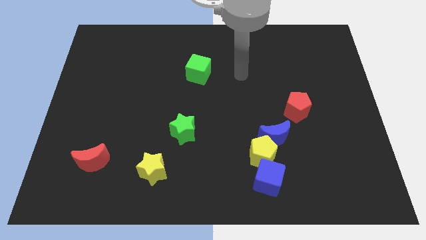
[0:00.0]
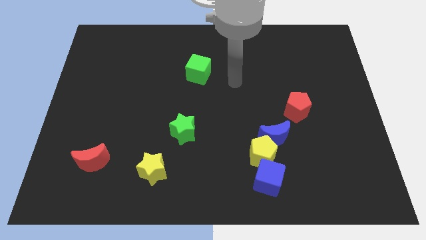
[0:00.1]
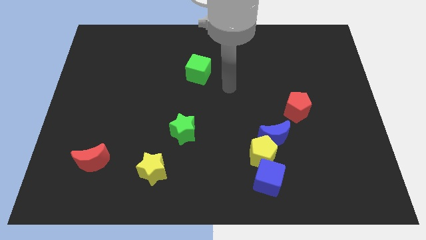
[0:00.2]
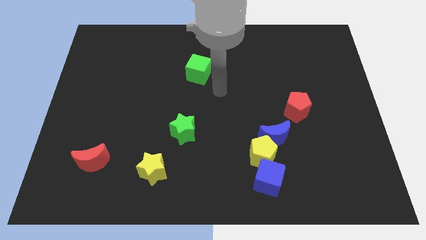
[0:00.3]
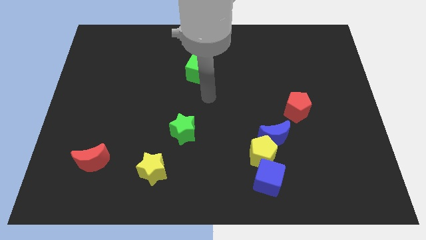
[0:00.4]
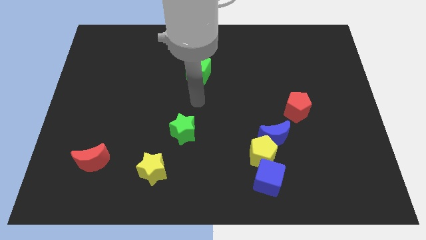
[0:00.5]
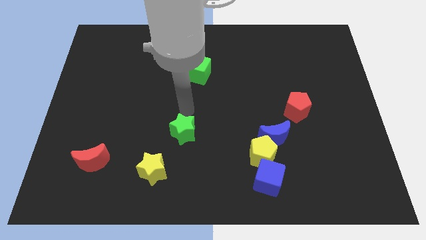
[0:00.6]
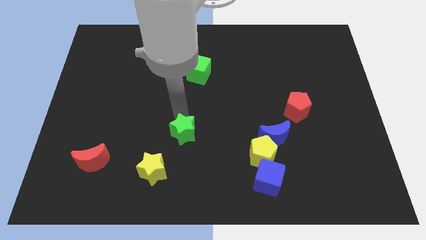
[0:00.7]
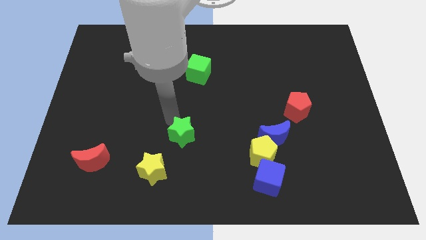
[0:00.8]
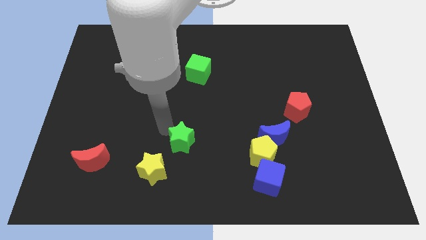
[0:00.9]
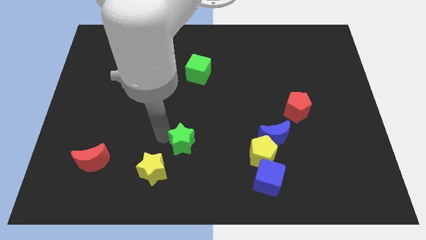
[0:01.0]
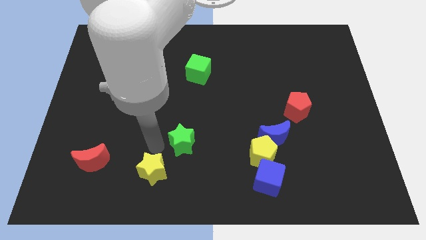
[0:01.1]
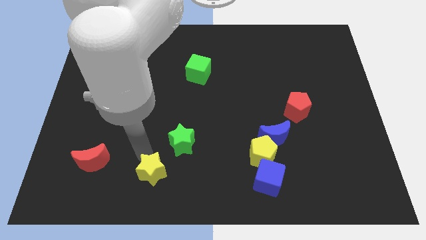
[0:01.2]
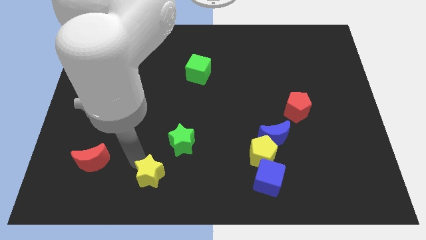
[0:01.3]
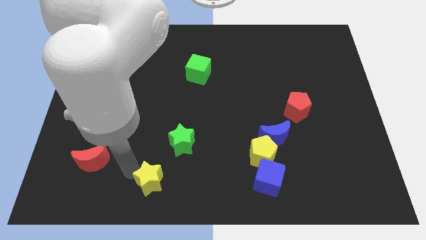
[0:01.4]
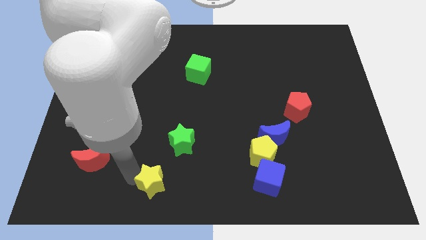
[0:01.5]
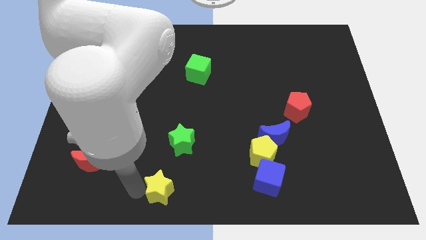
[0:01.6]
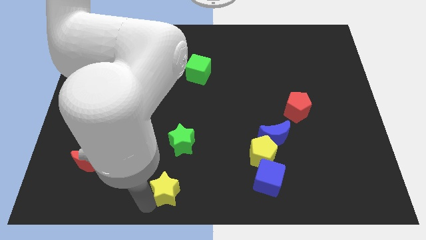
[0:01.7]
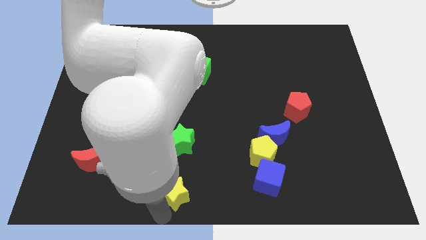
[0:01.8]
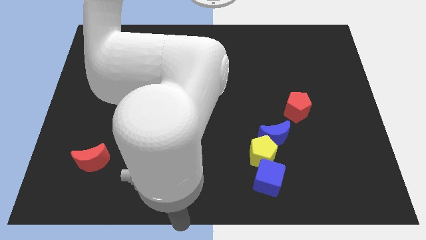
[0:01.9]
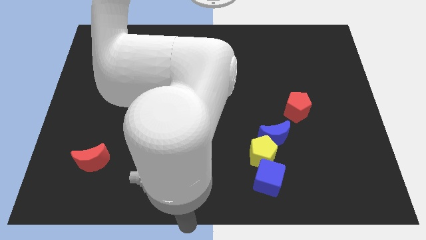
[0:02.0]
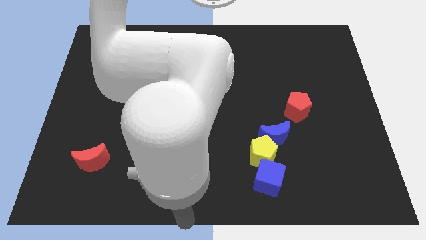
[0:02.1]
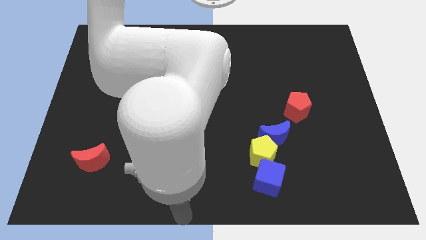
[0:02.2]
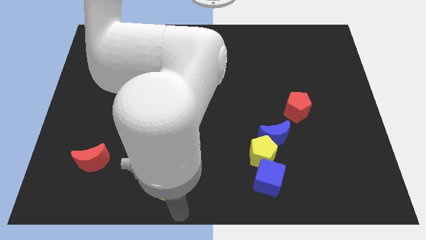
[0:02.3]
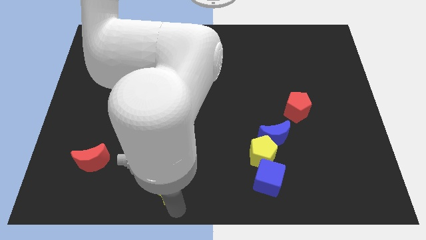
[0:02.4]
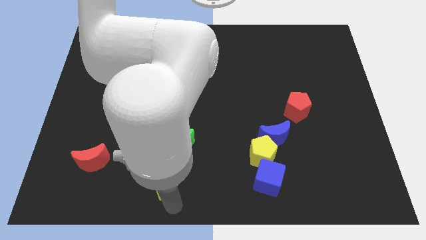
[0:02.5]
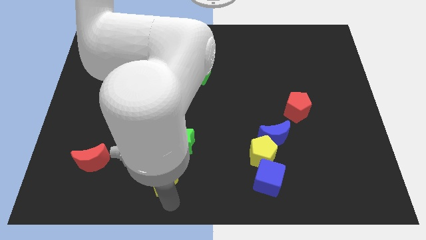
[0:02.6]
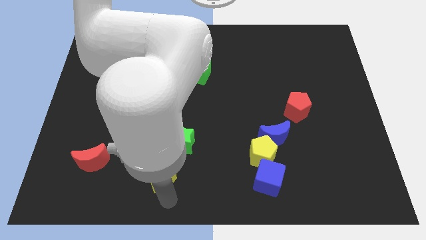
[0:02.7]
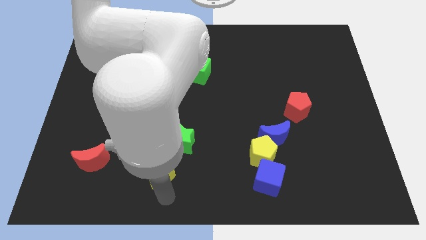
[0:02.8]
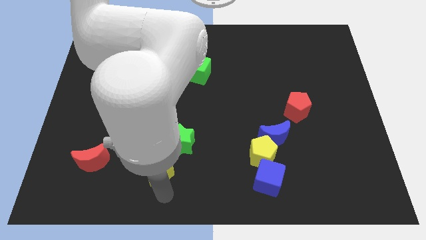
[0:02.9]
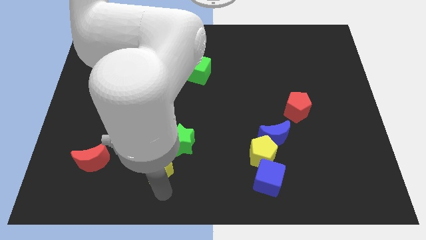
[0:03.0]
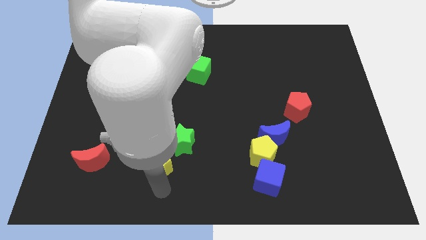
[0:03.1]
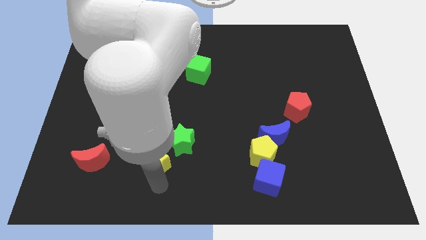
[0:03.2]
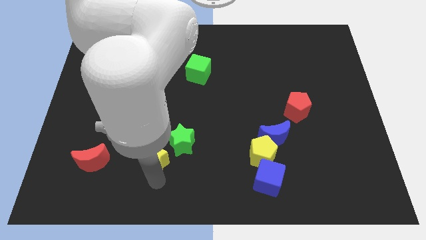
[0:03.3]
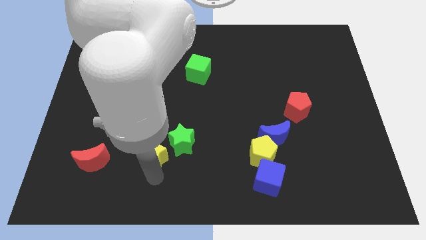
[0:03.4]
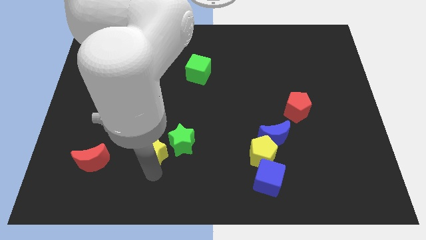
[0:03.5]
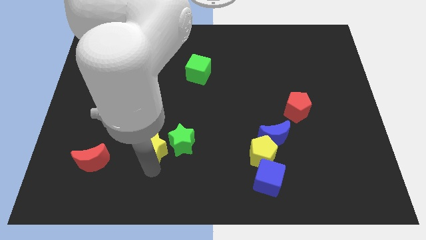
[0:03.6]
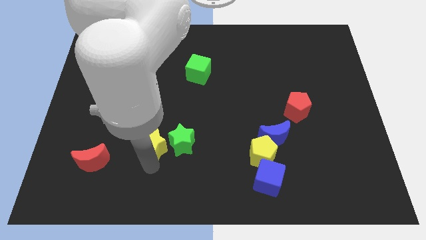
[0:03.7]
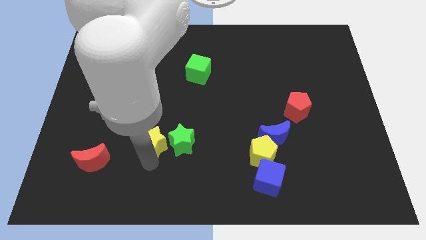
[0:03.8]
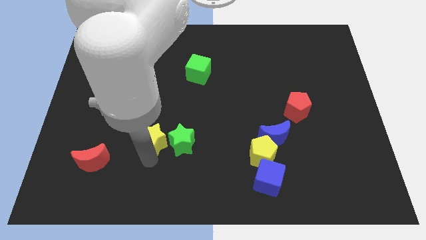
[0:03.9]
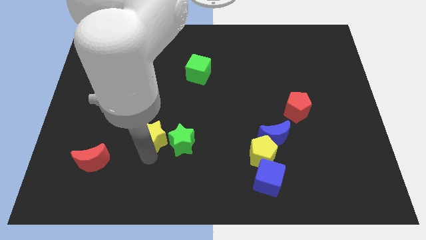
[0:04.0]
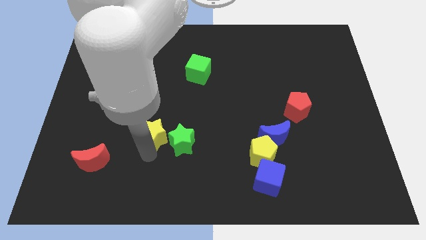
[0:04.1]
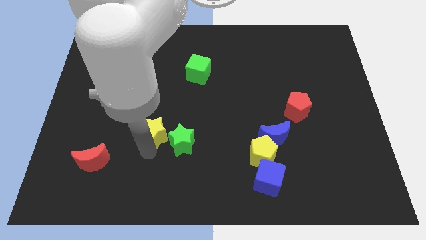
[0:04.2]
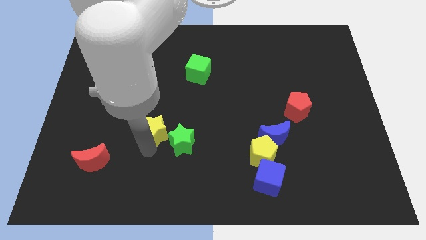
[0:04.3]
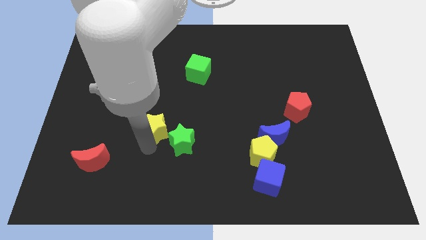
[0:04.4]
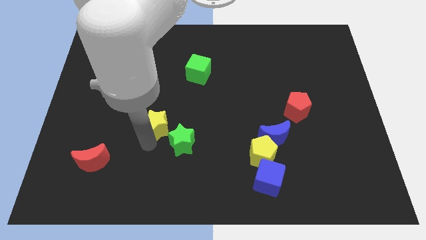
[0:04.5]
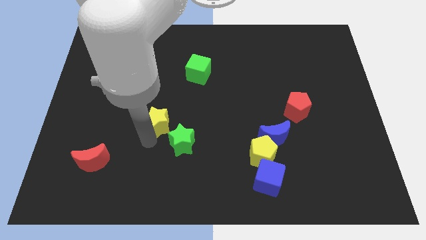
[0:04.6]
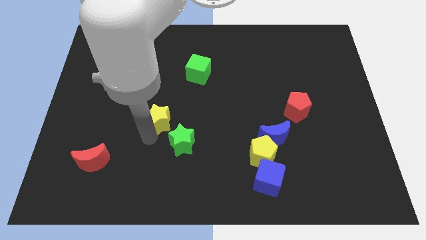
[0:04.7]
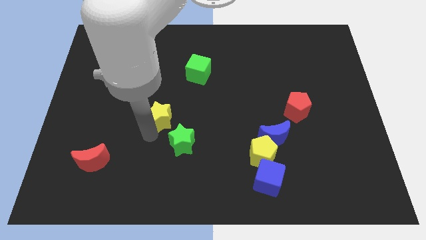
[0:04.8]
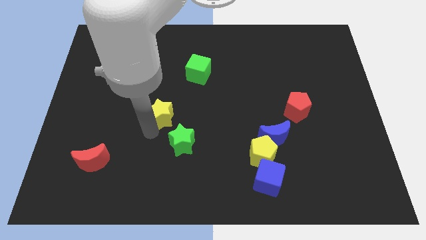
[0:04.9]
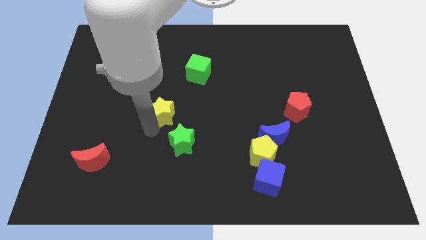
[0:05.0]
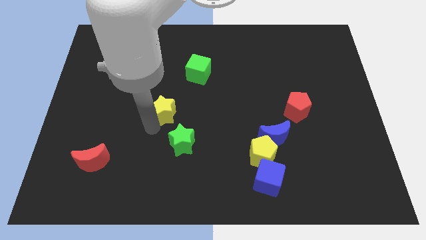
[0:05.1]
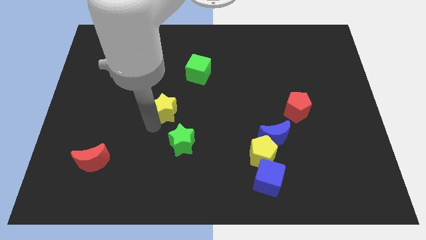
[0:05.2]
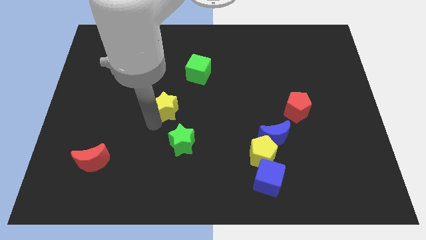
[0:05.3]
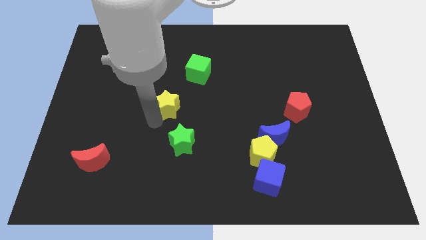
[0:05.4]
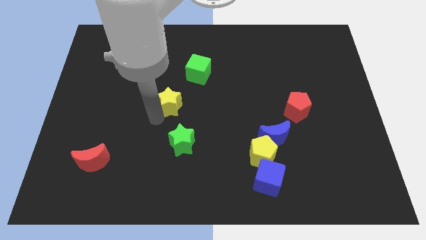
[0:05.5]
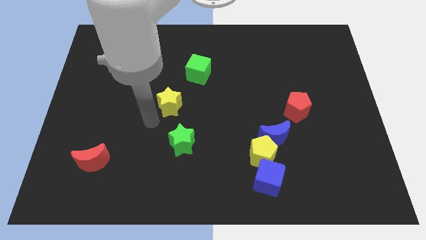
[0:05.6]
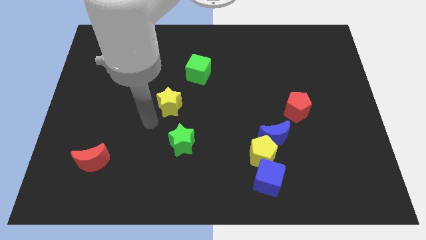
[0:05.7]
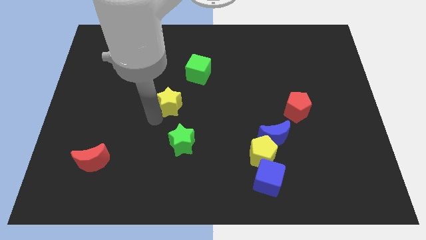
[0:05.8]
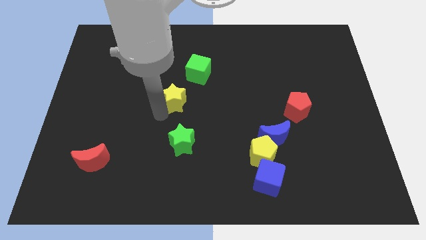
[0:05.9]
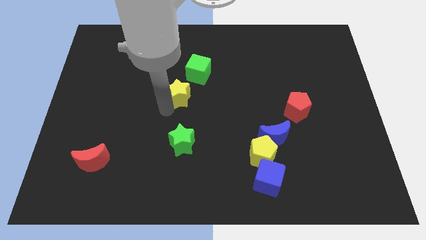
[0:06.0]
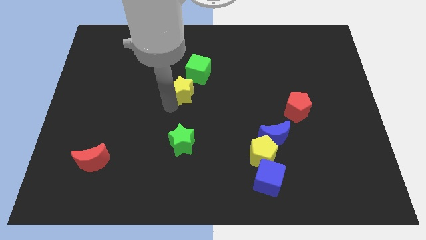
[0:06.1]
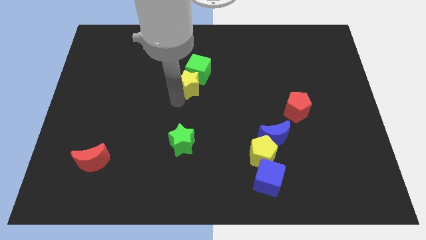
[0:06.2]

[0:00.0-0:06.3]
slide the yellow star towards the green cube

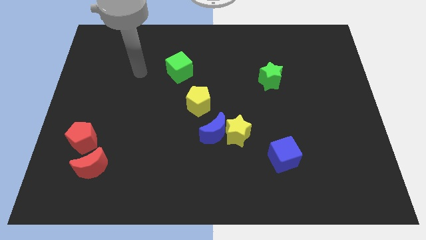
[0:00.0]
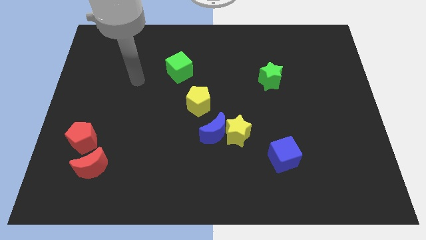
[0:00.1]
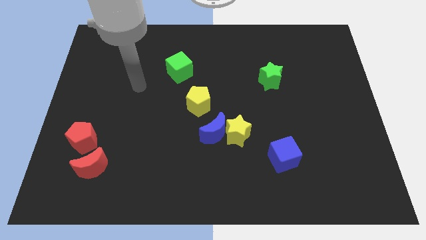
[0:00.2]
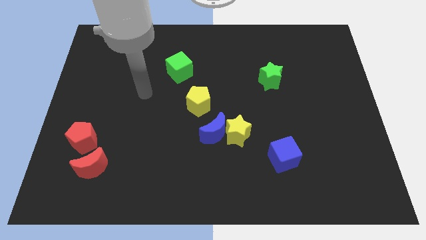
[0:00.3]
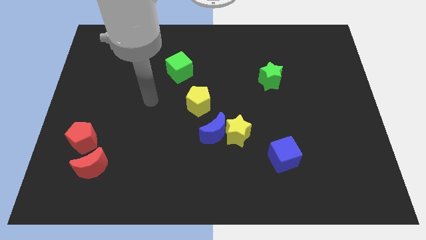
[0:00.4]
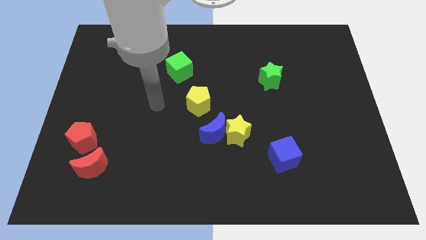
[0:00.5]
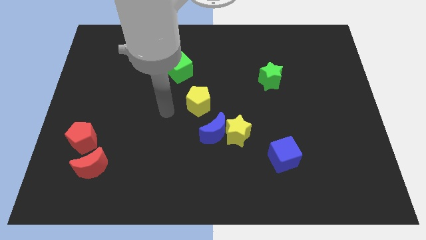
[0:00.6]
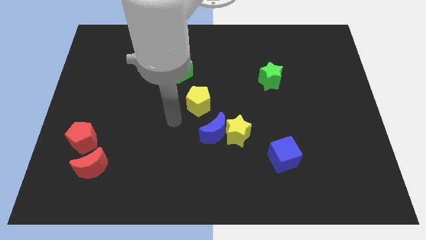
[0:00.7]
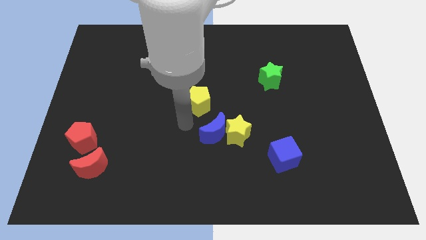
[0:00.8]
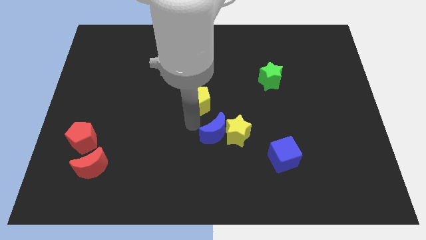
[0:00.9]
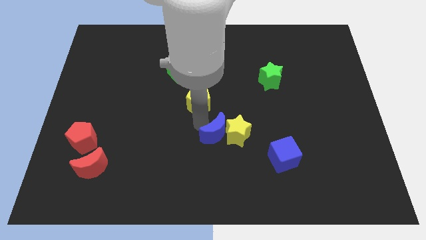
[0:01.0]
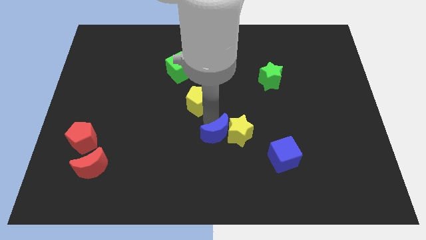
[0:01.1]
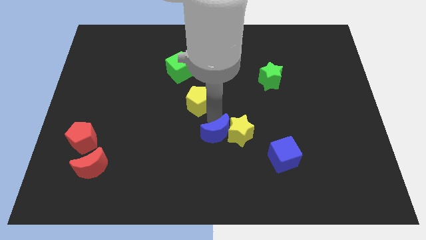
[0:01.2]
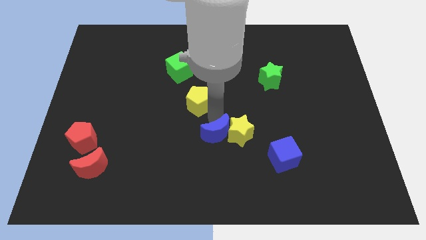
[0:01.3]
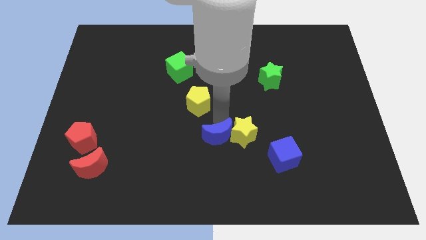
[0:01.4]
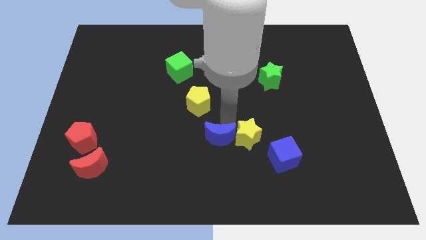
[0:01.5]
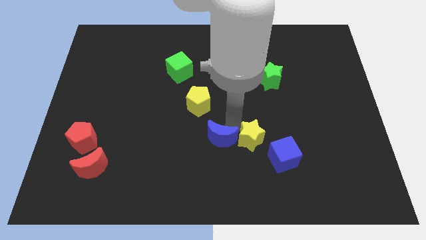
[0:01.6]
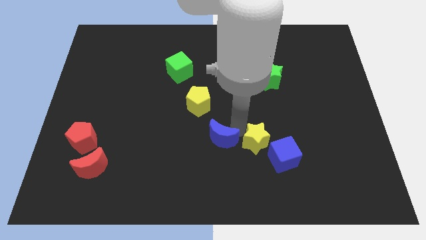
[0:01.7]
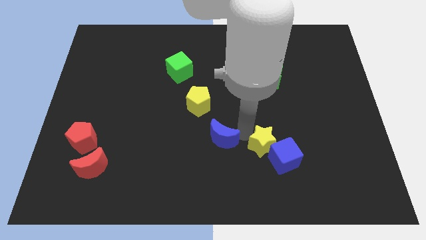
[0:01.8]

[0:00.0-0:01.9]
move the yellow star towards the blue cube
